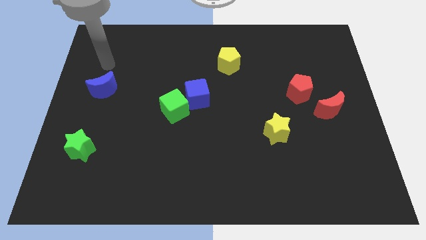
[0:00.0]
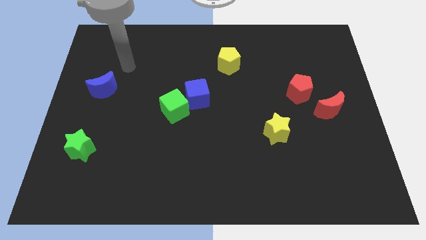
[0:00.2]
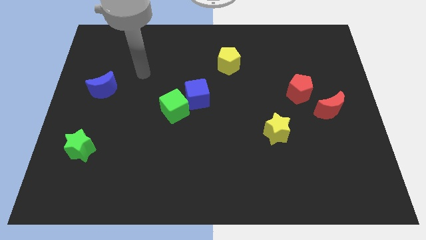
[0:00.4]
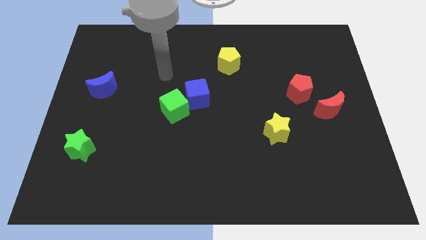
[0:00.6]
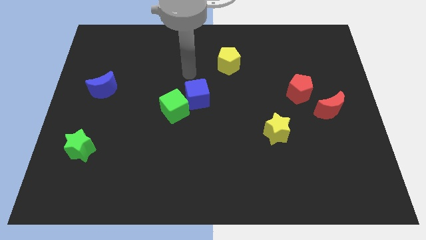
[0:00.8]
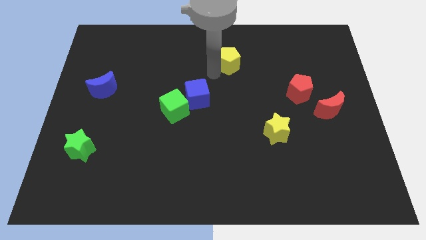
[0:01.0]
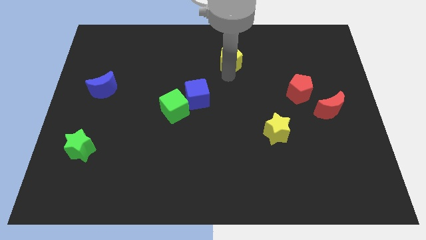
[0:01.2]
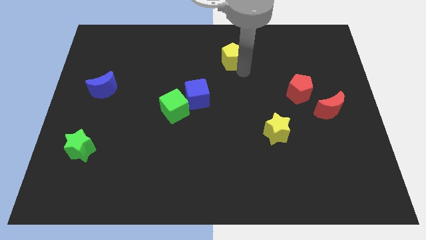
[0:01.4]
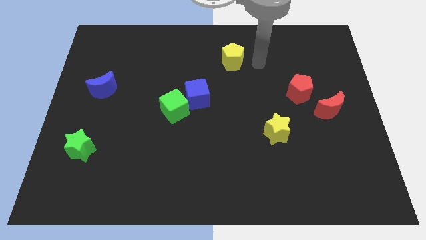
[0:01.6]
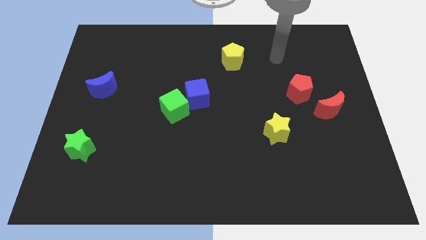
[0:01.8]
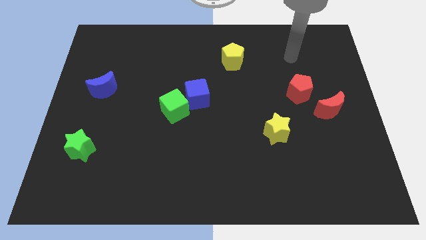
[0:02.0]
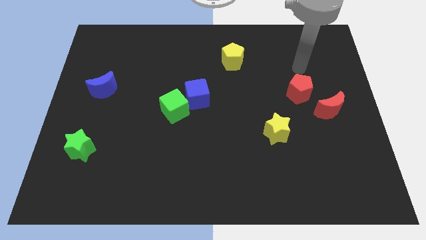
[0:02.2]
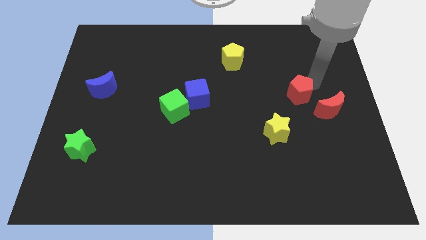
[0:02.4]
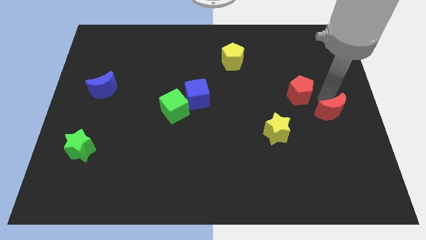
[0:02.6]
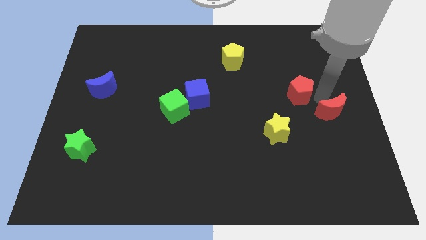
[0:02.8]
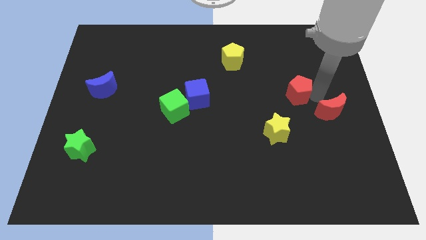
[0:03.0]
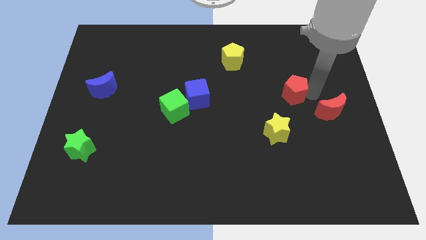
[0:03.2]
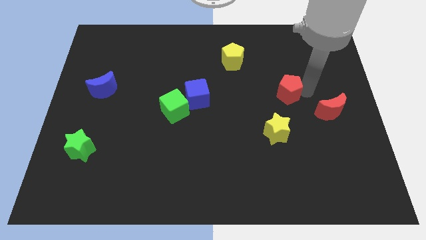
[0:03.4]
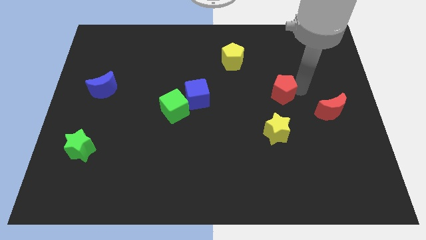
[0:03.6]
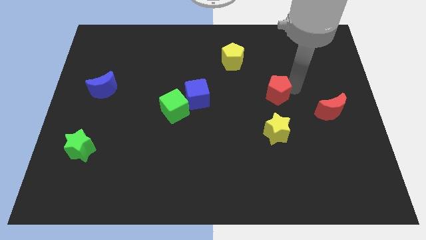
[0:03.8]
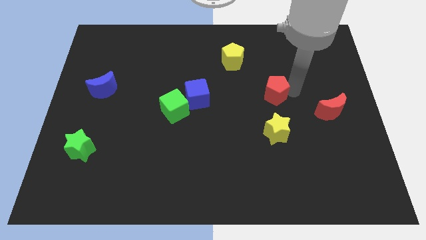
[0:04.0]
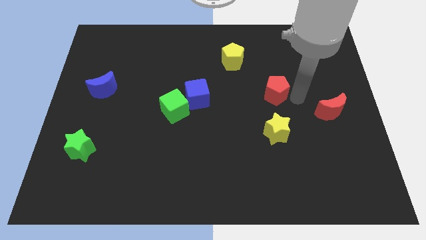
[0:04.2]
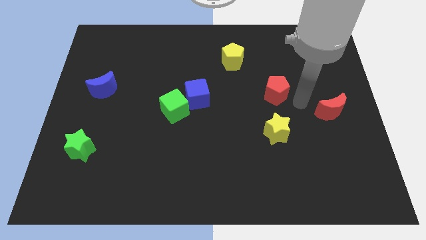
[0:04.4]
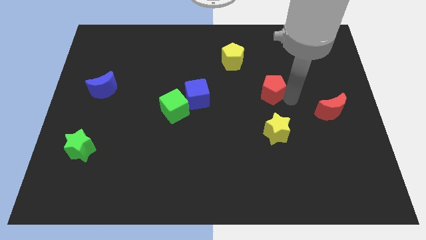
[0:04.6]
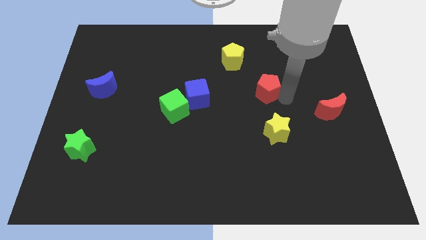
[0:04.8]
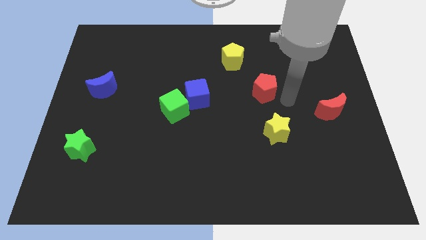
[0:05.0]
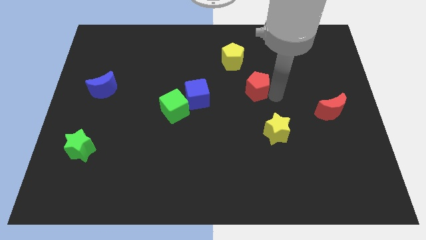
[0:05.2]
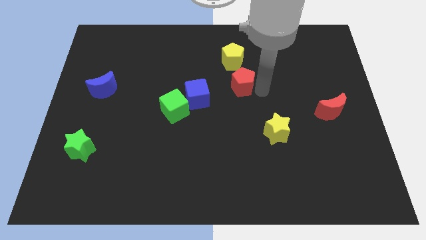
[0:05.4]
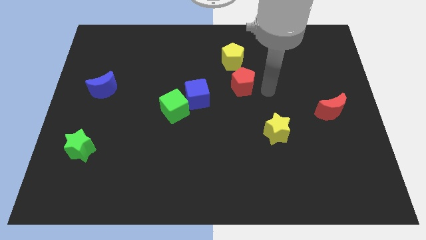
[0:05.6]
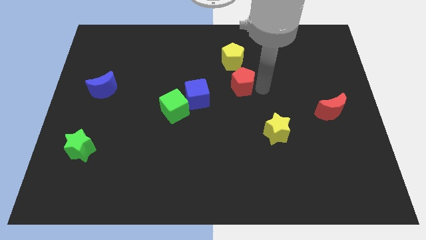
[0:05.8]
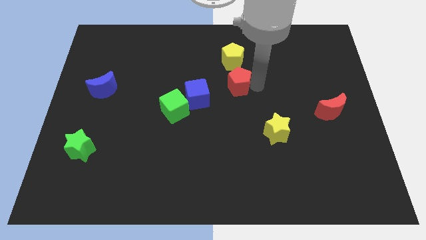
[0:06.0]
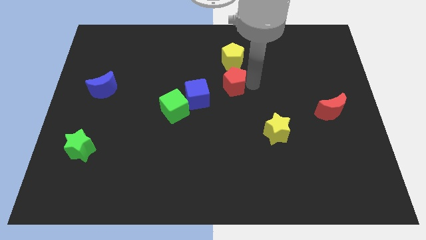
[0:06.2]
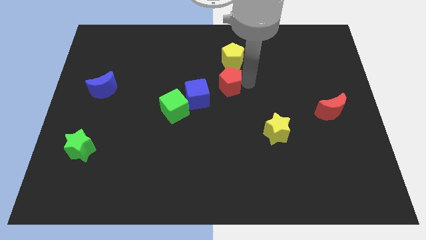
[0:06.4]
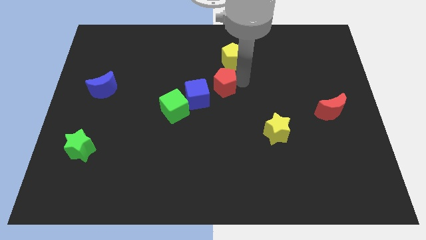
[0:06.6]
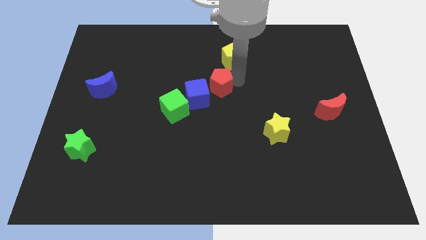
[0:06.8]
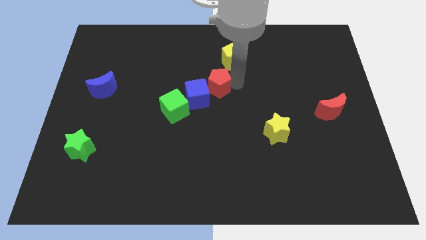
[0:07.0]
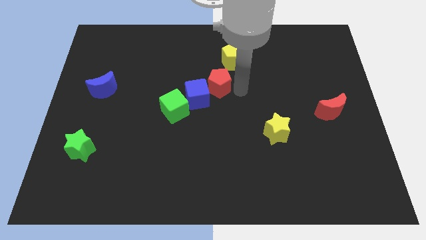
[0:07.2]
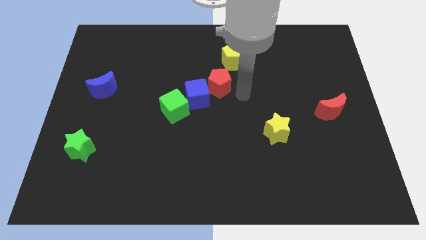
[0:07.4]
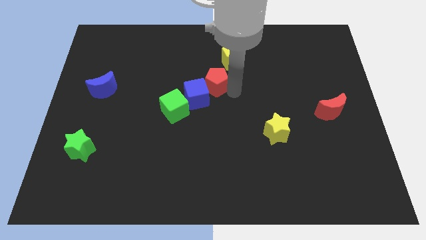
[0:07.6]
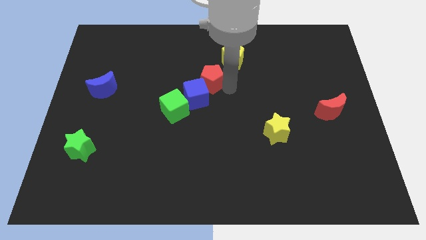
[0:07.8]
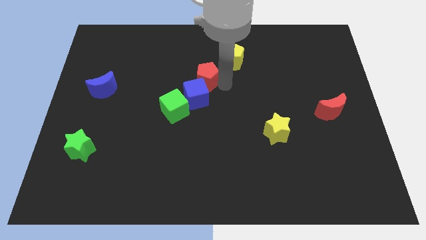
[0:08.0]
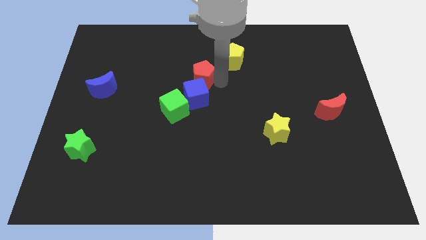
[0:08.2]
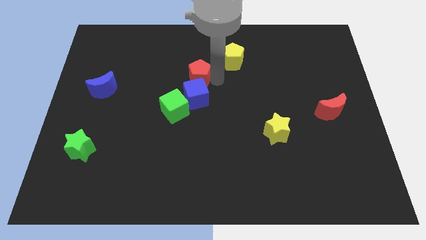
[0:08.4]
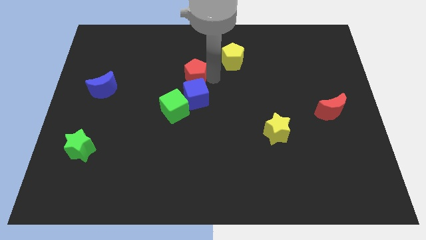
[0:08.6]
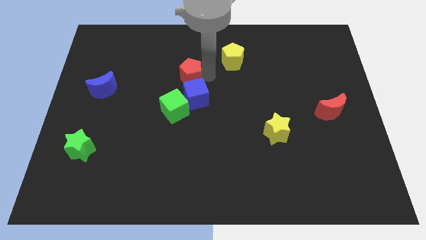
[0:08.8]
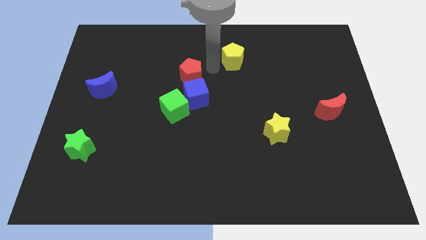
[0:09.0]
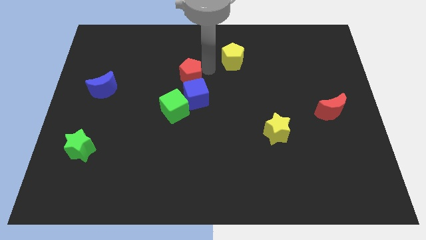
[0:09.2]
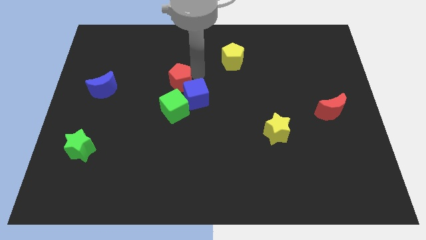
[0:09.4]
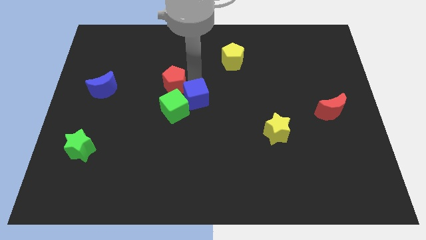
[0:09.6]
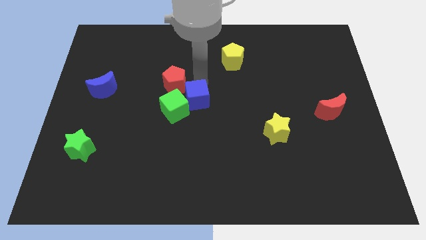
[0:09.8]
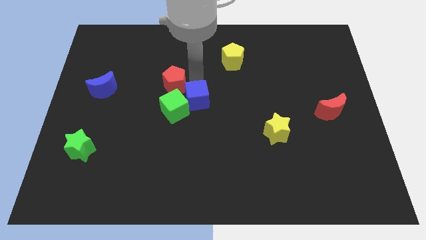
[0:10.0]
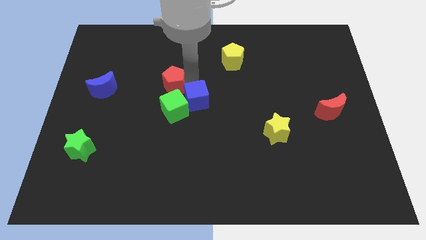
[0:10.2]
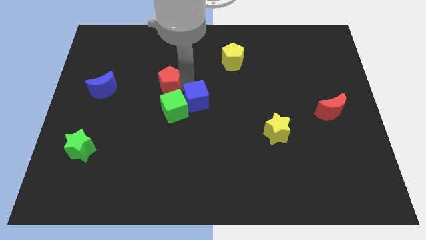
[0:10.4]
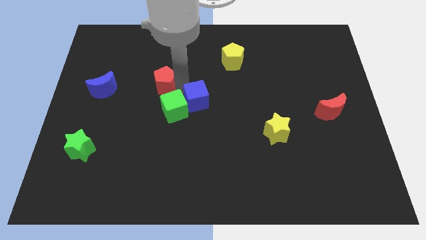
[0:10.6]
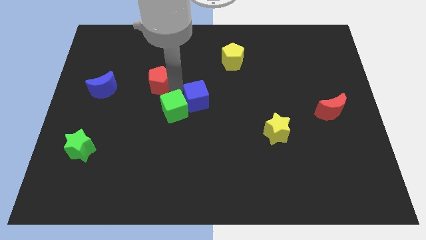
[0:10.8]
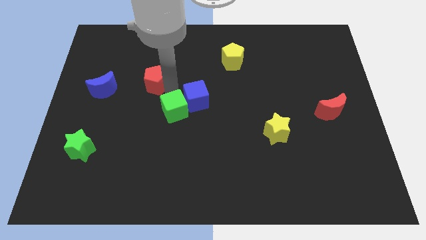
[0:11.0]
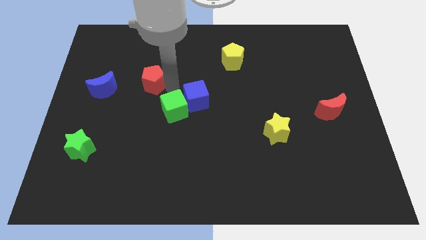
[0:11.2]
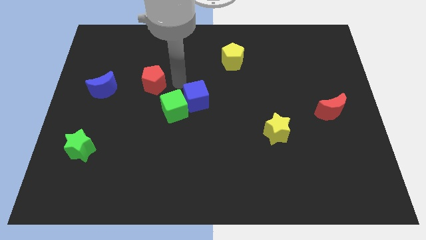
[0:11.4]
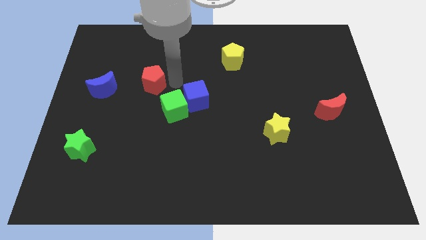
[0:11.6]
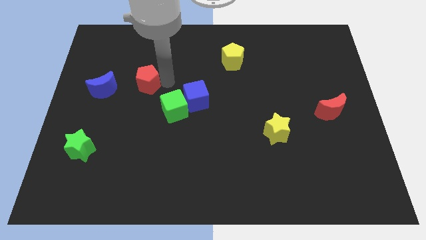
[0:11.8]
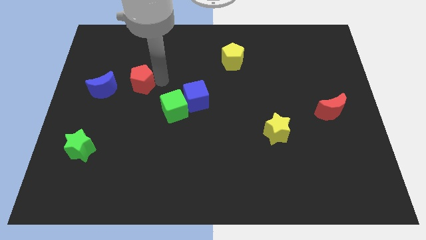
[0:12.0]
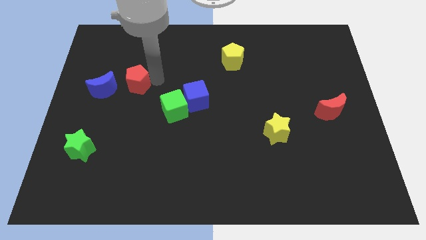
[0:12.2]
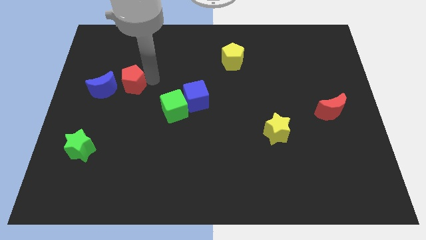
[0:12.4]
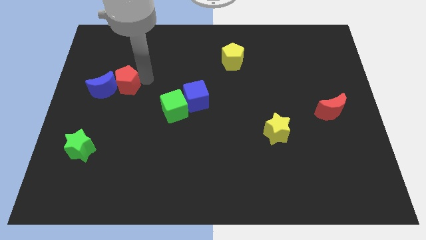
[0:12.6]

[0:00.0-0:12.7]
put the red pentagon close to the blue moon

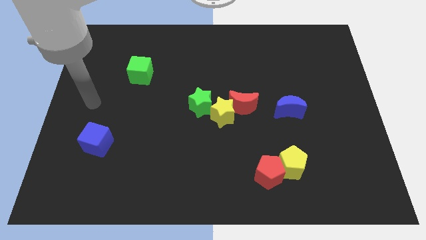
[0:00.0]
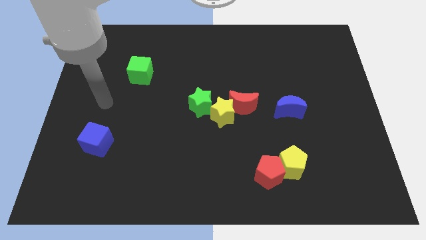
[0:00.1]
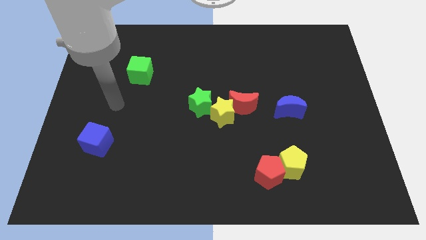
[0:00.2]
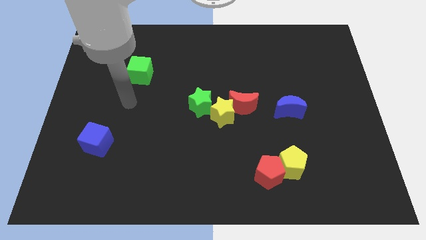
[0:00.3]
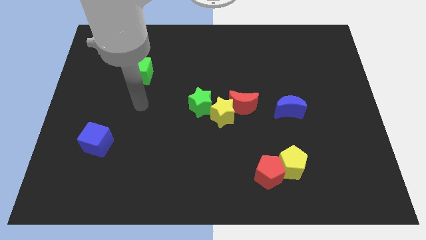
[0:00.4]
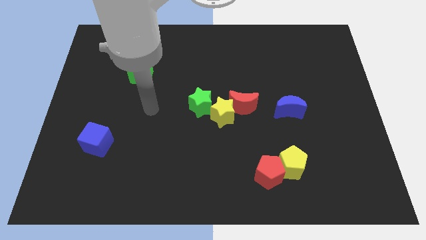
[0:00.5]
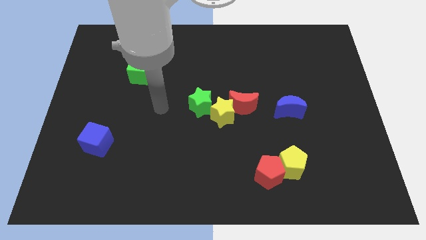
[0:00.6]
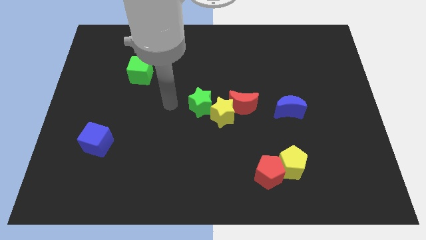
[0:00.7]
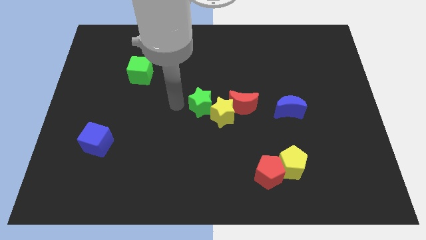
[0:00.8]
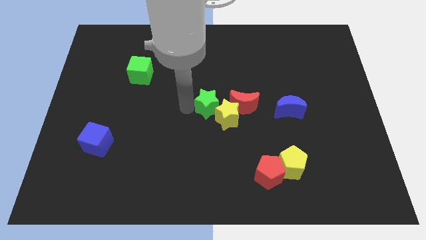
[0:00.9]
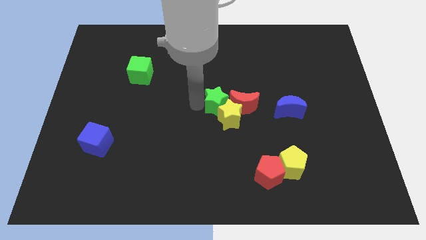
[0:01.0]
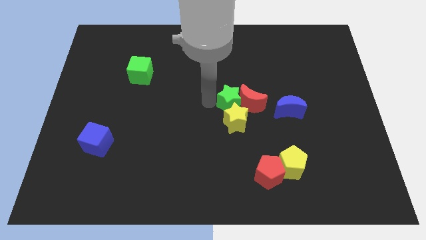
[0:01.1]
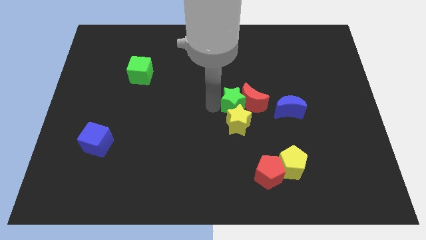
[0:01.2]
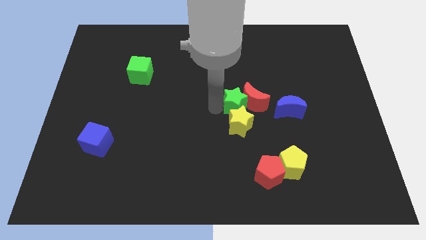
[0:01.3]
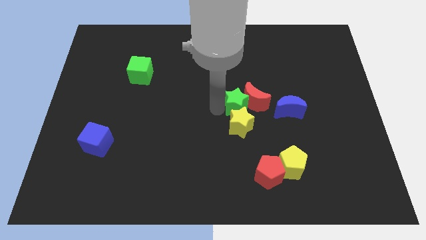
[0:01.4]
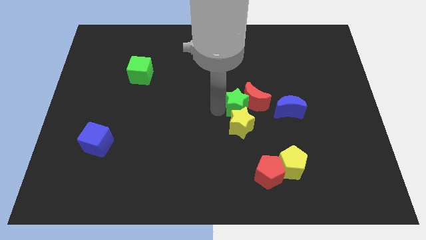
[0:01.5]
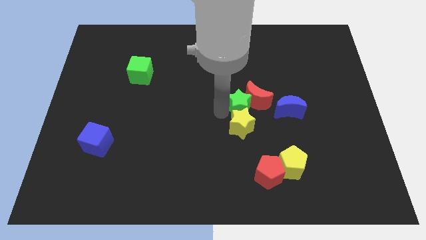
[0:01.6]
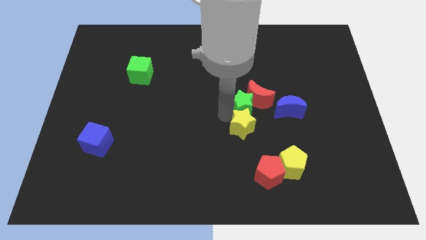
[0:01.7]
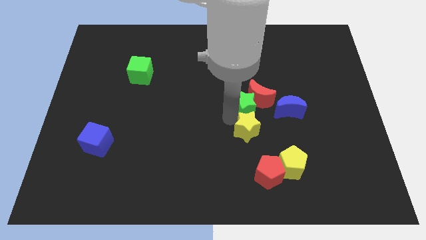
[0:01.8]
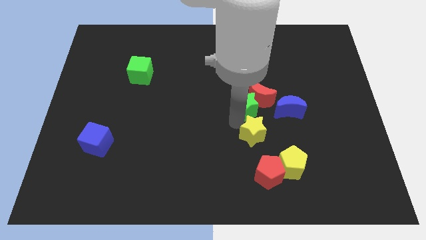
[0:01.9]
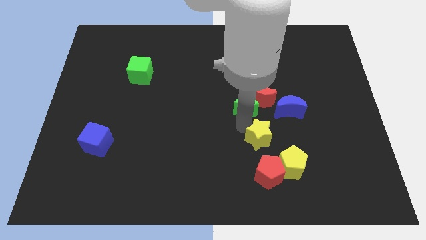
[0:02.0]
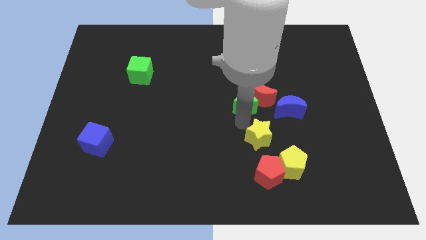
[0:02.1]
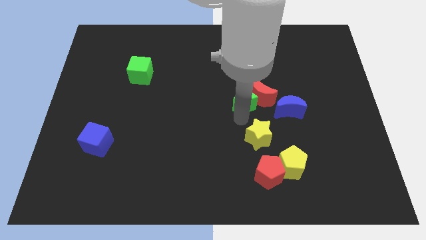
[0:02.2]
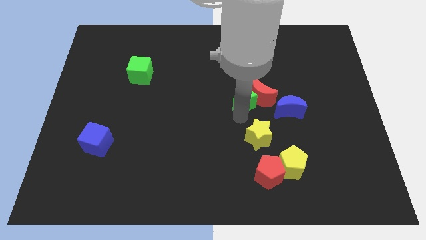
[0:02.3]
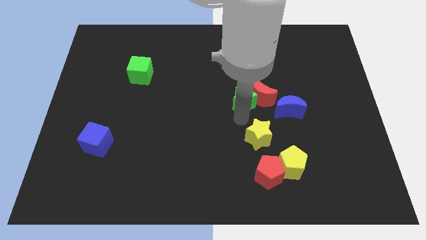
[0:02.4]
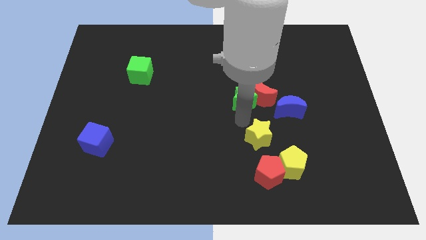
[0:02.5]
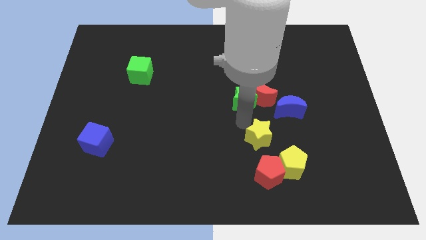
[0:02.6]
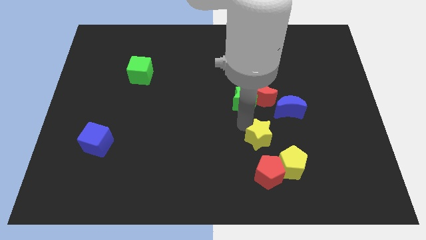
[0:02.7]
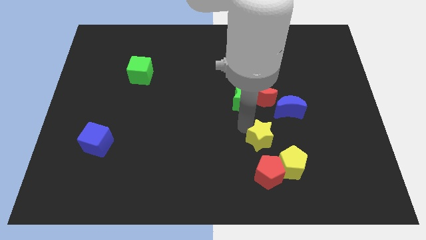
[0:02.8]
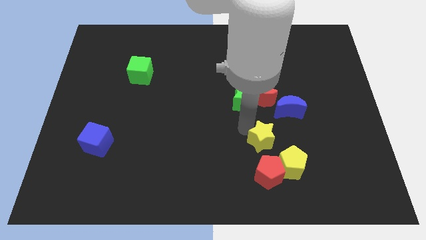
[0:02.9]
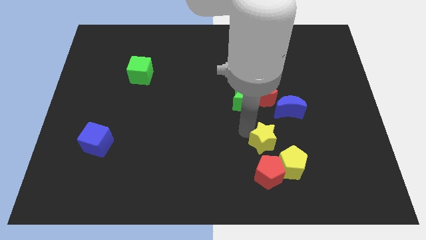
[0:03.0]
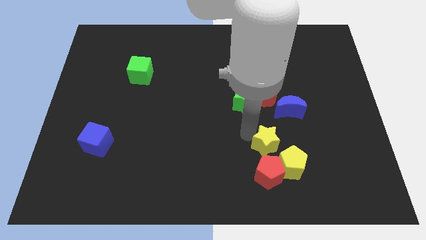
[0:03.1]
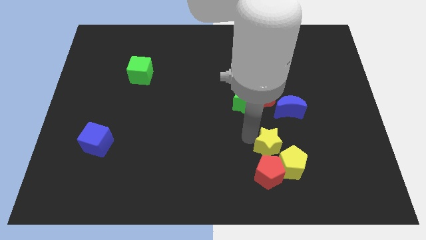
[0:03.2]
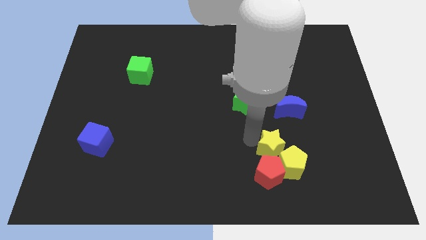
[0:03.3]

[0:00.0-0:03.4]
move the yellow star to the yellow pentagon
